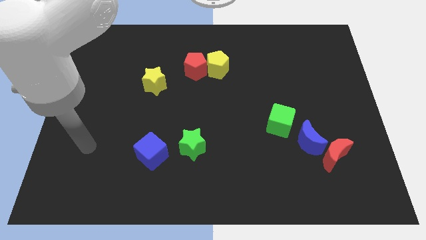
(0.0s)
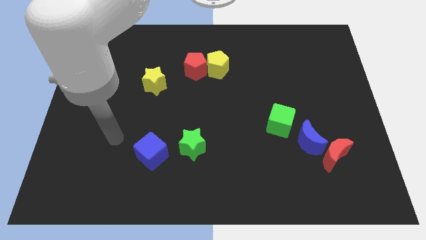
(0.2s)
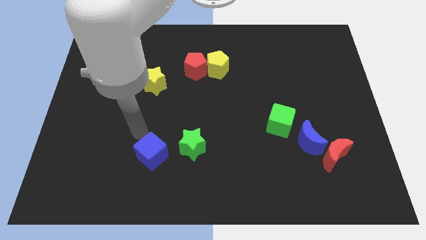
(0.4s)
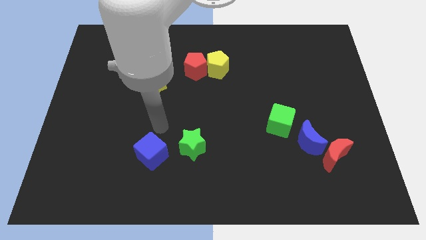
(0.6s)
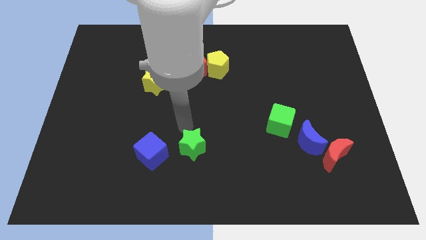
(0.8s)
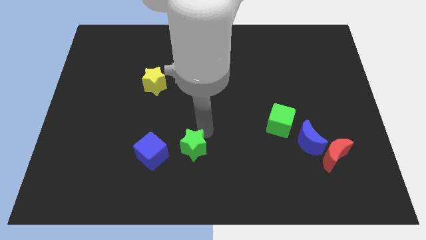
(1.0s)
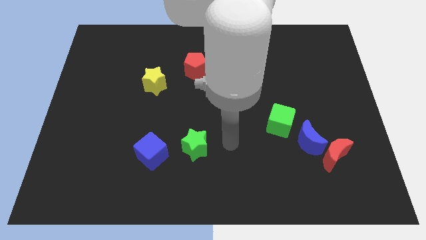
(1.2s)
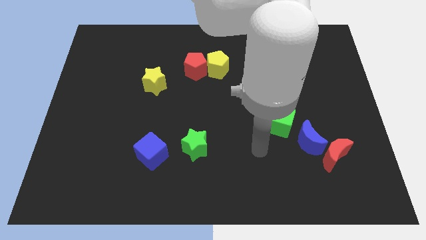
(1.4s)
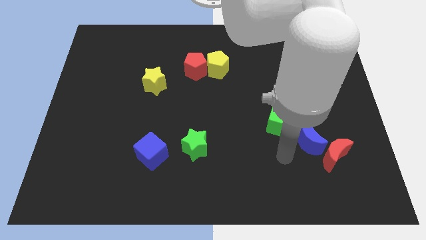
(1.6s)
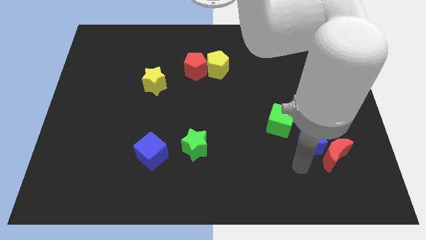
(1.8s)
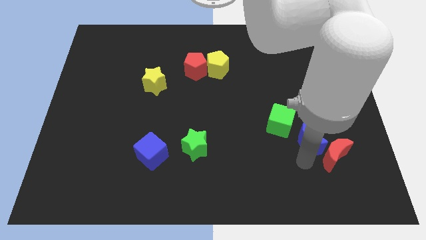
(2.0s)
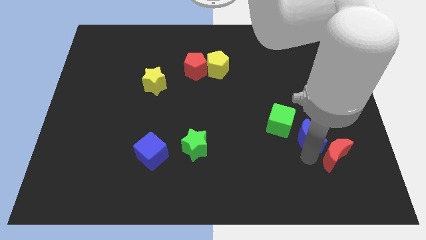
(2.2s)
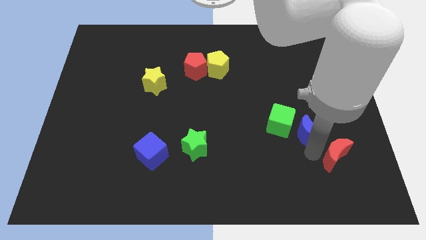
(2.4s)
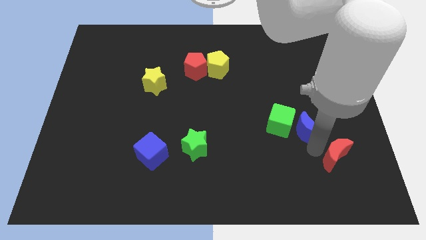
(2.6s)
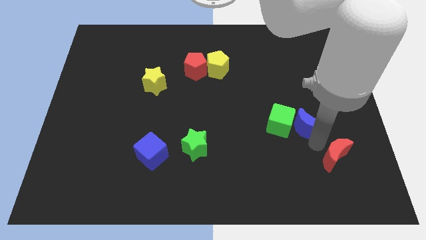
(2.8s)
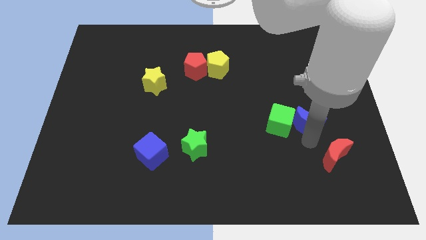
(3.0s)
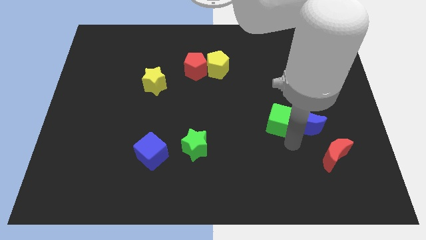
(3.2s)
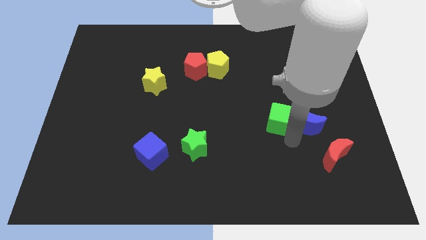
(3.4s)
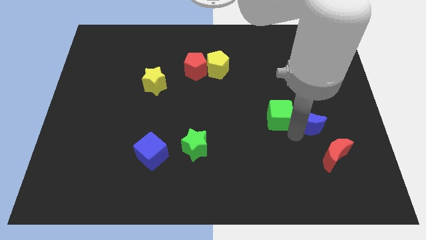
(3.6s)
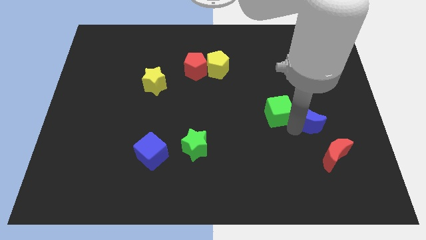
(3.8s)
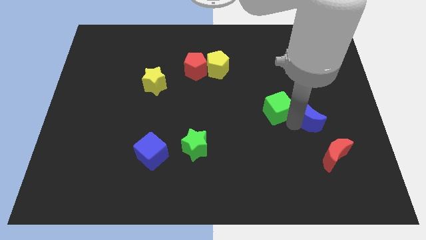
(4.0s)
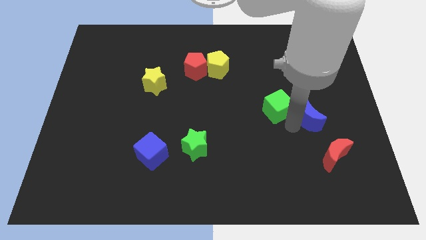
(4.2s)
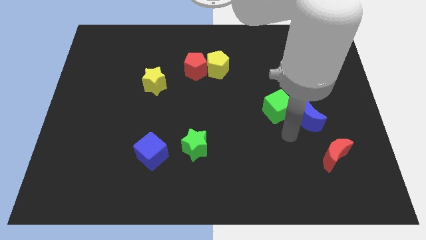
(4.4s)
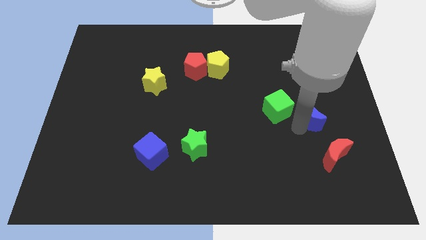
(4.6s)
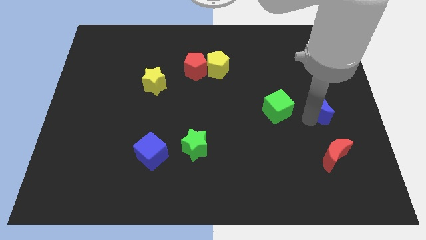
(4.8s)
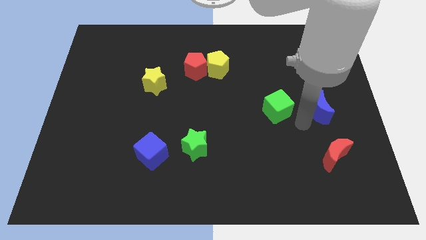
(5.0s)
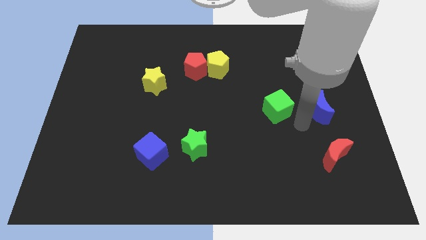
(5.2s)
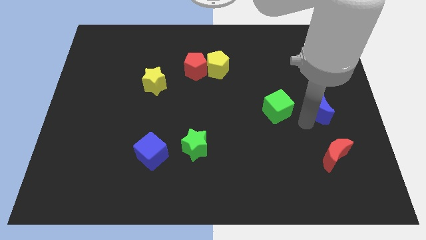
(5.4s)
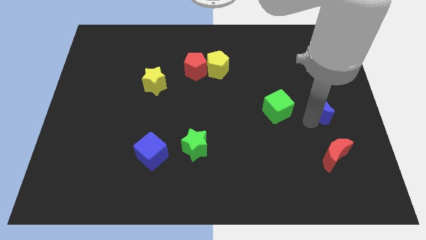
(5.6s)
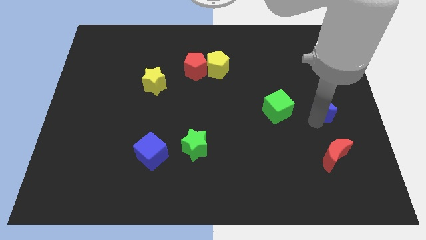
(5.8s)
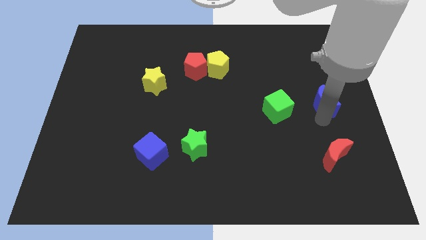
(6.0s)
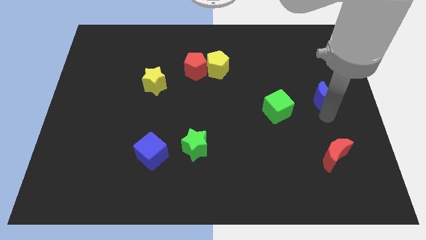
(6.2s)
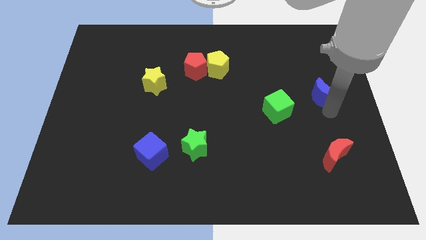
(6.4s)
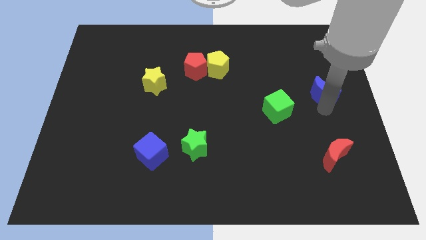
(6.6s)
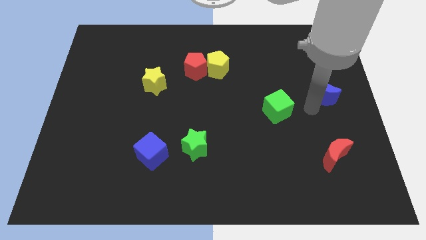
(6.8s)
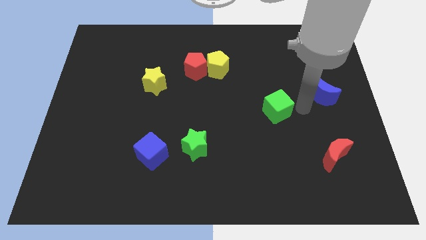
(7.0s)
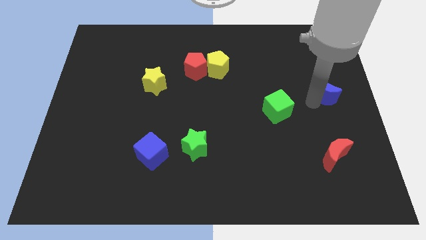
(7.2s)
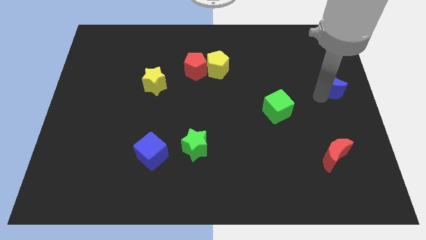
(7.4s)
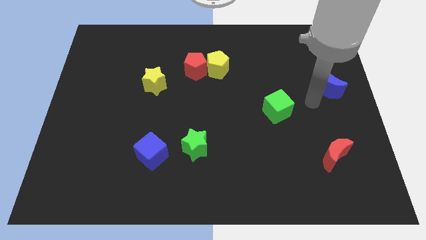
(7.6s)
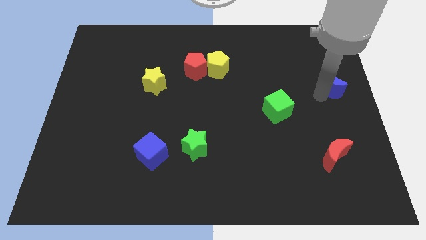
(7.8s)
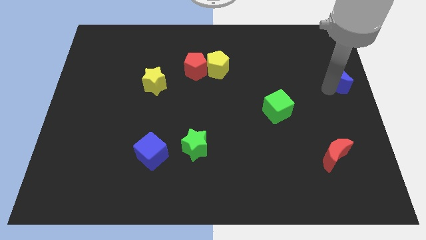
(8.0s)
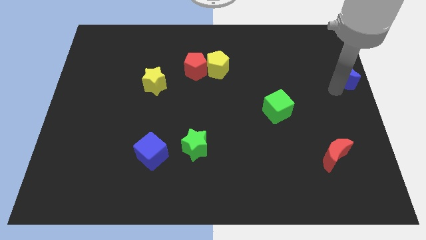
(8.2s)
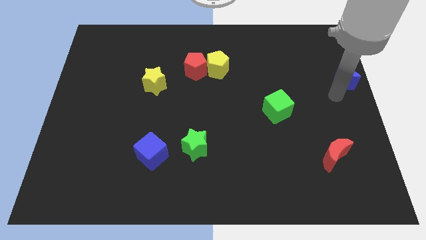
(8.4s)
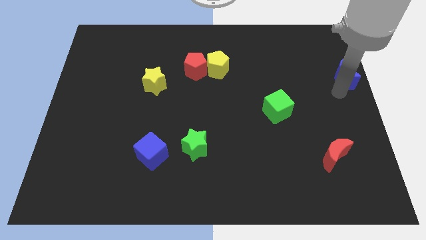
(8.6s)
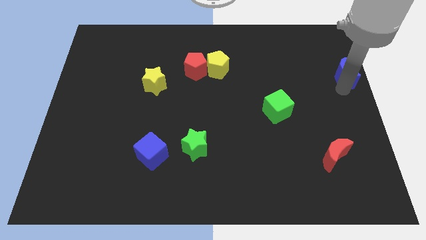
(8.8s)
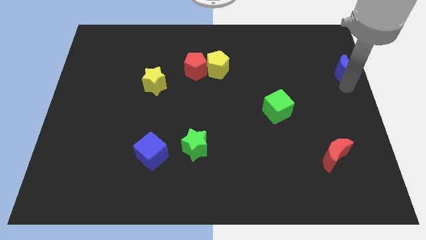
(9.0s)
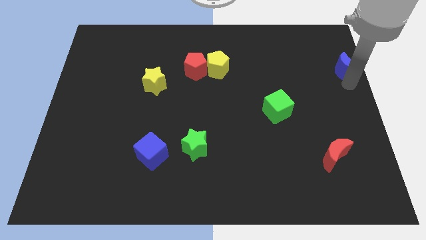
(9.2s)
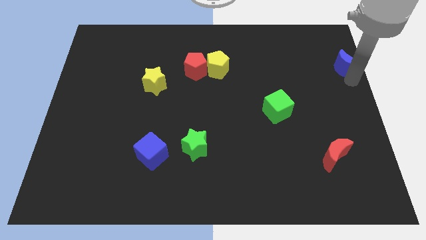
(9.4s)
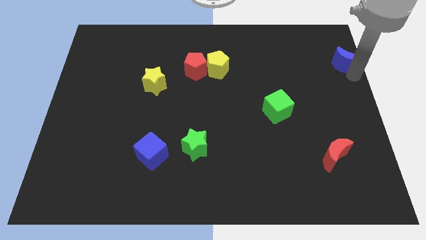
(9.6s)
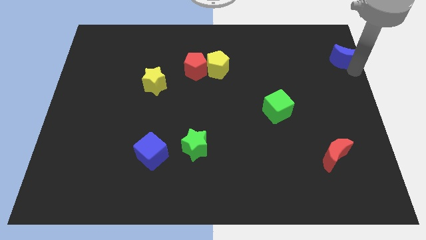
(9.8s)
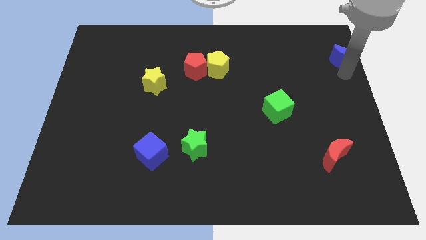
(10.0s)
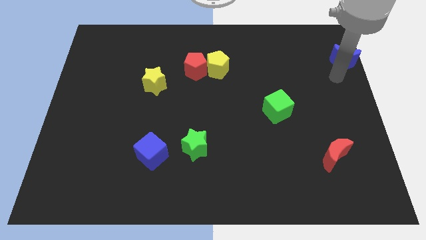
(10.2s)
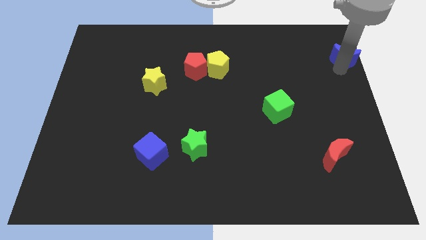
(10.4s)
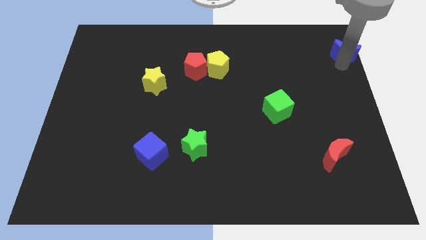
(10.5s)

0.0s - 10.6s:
push the blue moon to the upper right corner

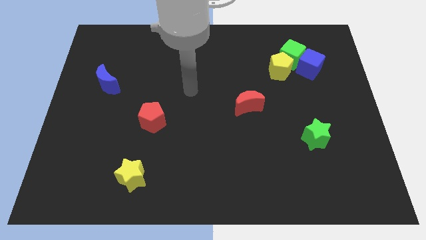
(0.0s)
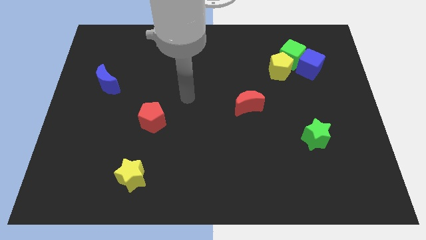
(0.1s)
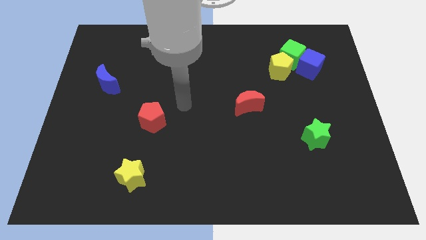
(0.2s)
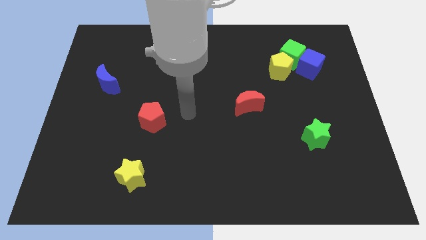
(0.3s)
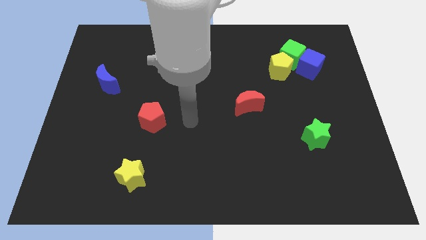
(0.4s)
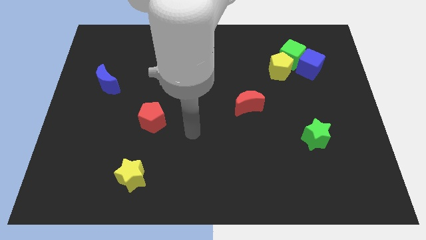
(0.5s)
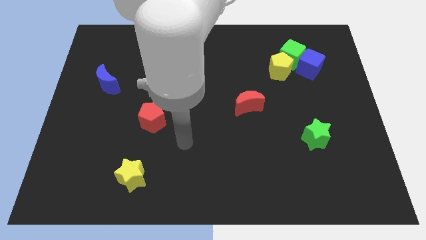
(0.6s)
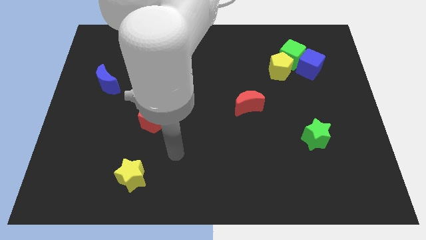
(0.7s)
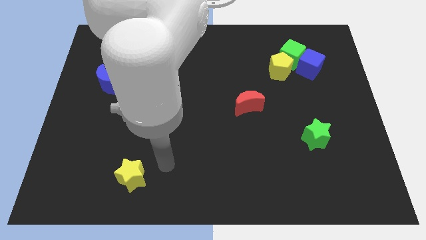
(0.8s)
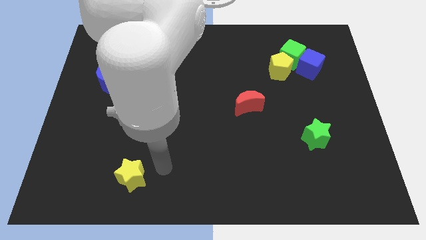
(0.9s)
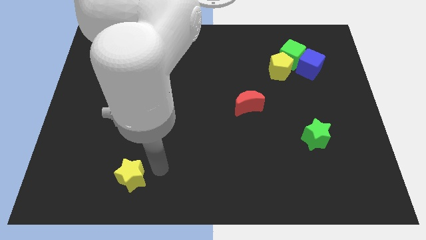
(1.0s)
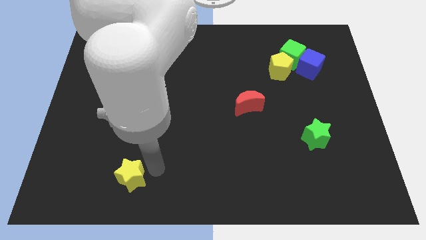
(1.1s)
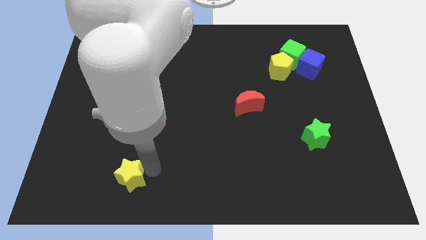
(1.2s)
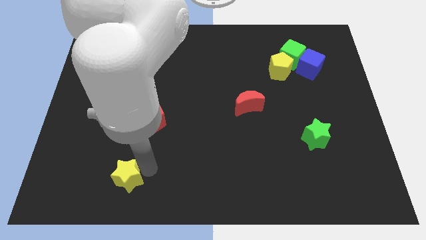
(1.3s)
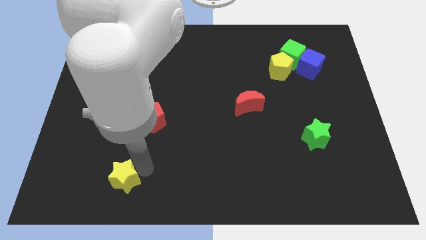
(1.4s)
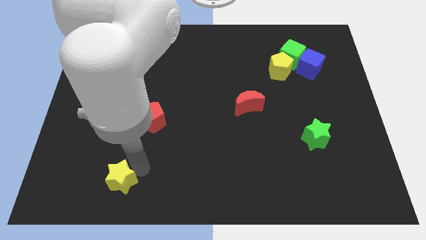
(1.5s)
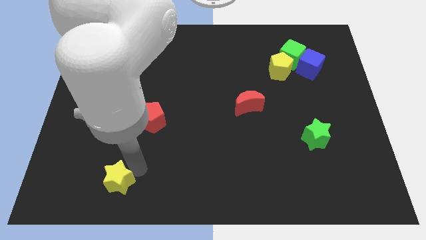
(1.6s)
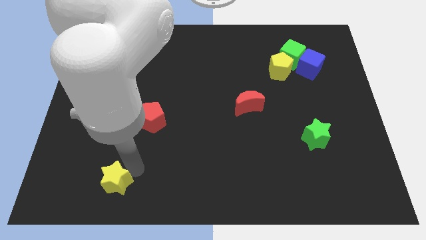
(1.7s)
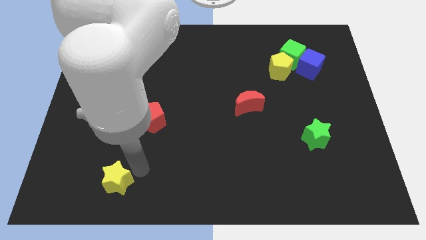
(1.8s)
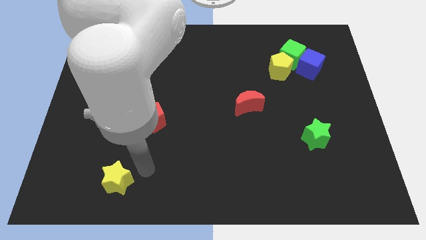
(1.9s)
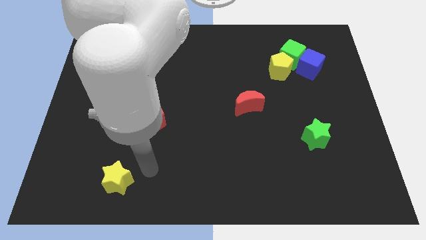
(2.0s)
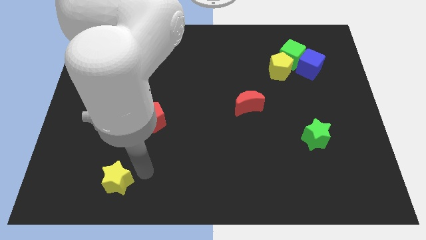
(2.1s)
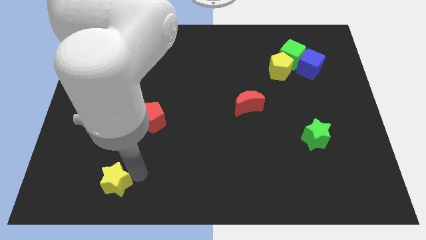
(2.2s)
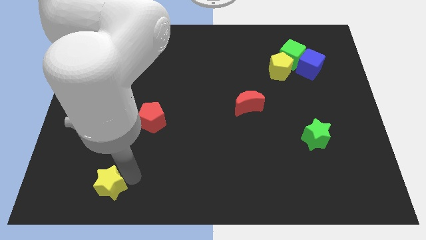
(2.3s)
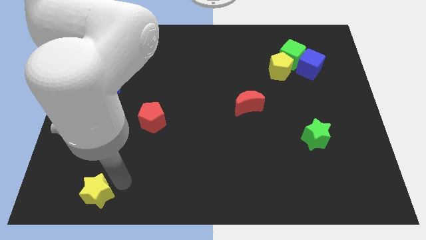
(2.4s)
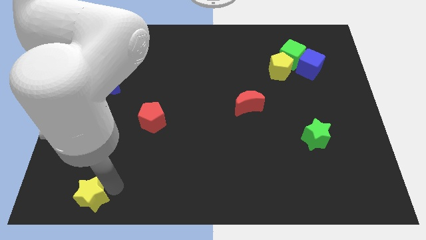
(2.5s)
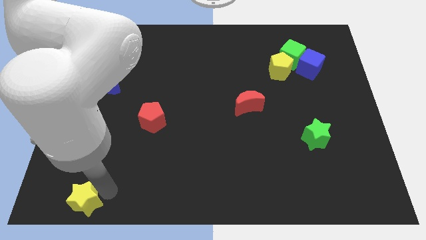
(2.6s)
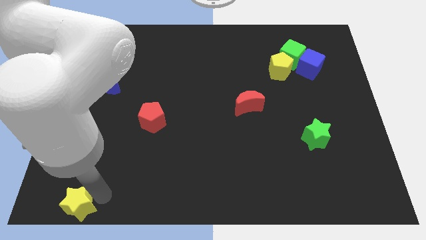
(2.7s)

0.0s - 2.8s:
push the yellow star to the bottom left corner
